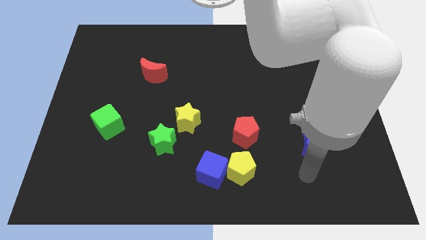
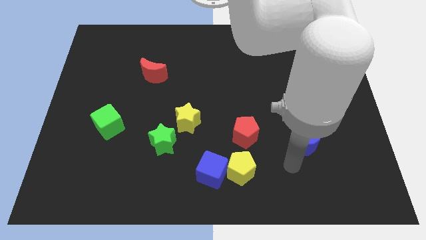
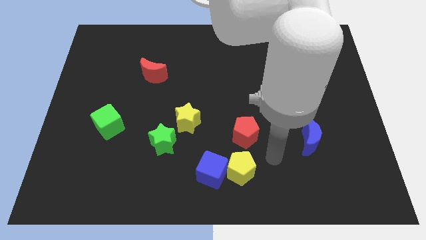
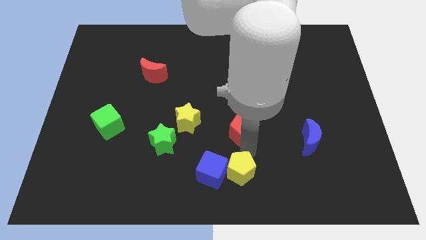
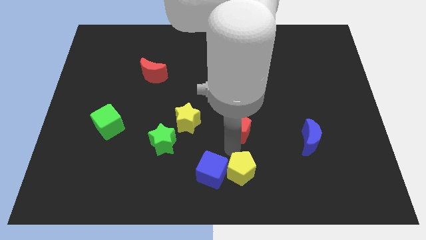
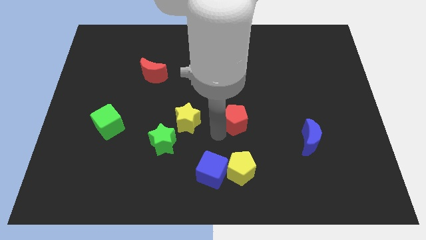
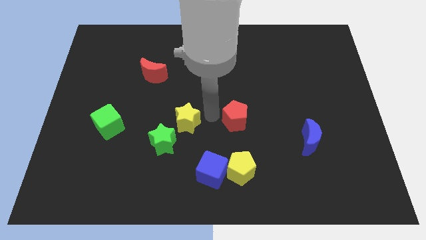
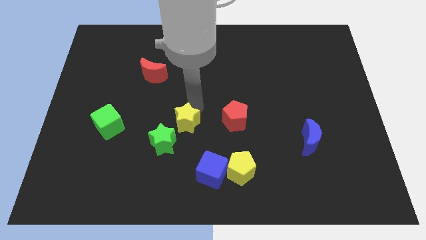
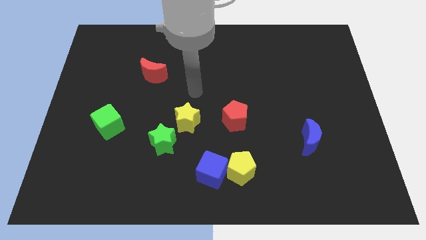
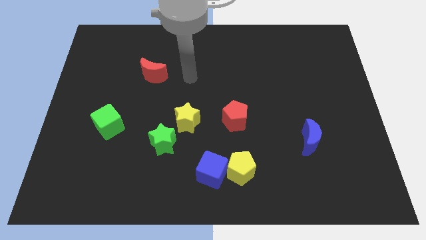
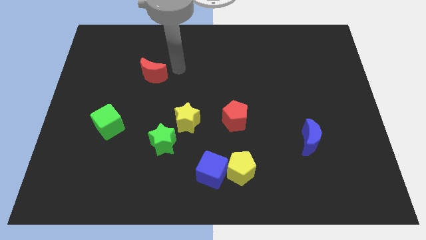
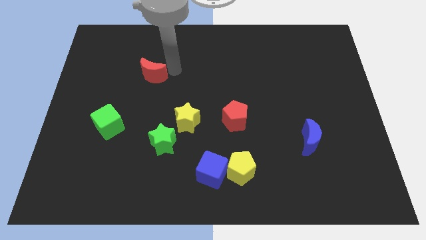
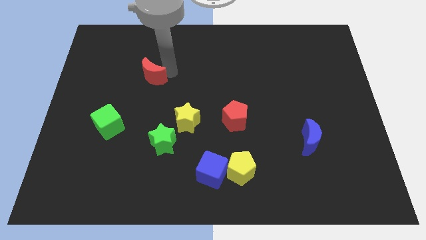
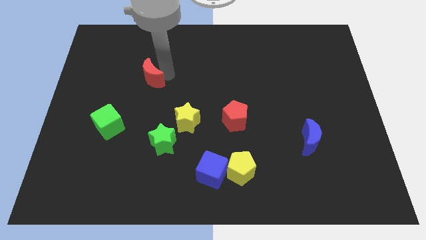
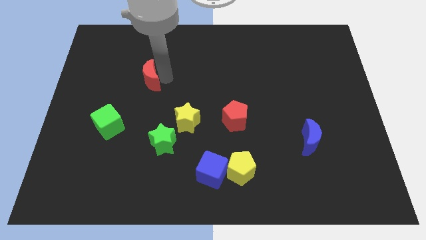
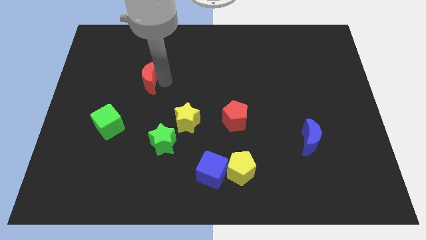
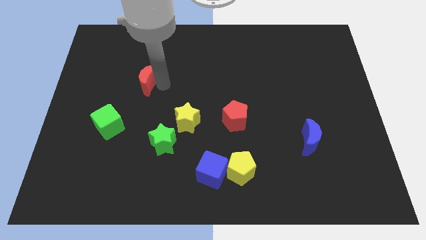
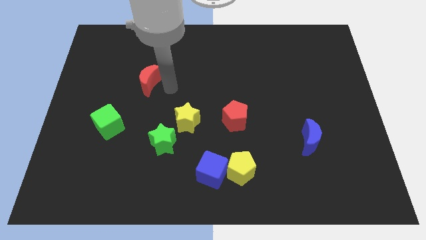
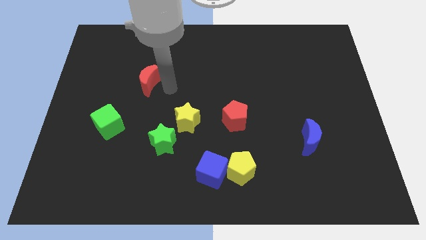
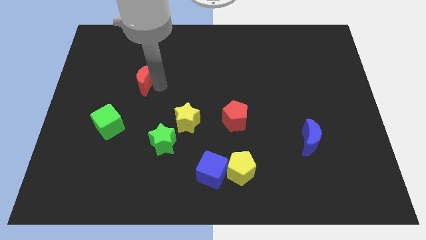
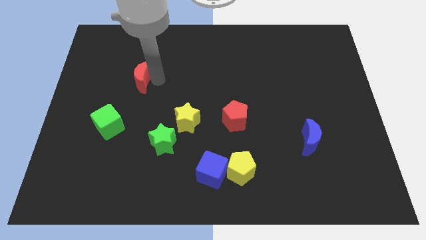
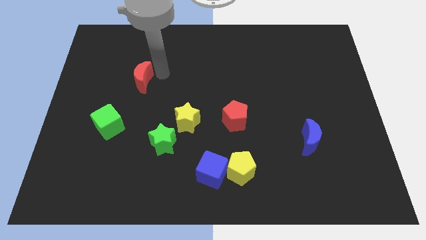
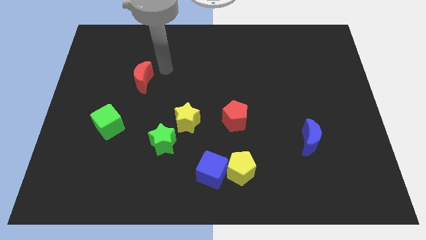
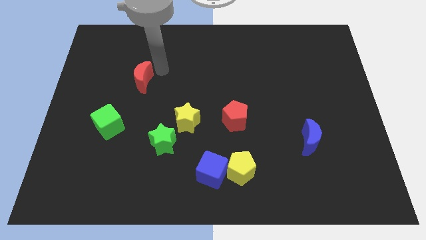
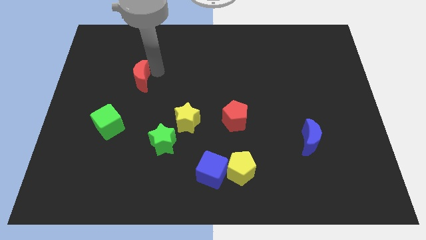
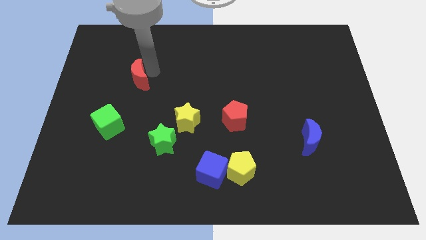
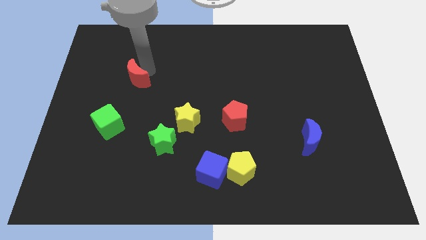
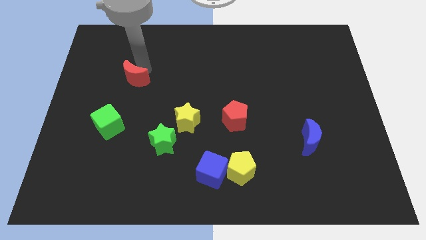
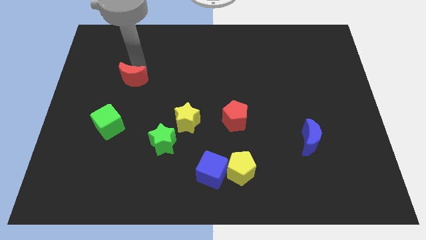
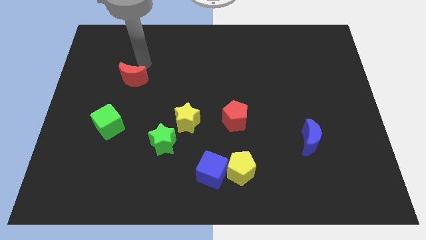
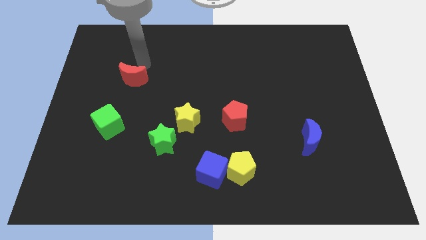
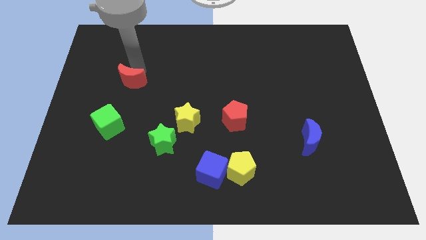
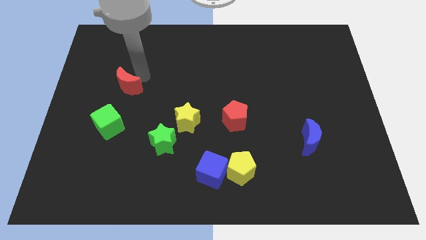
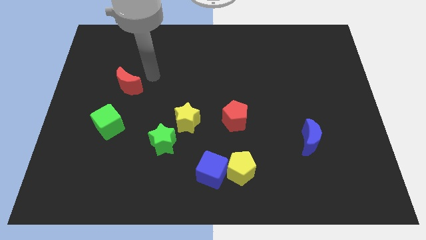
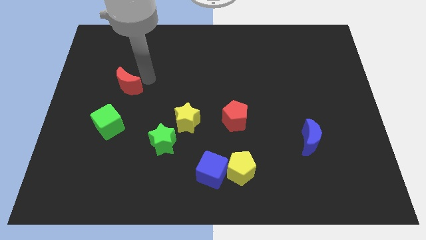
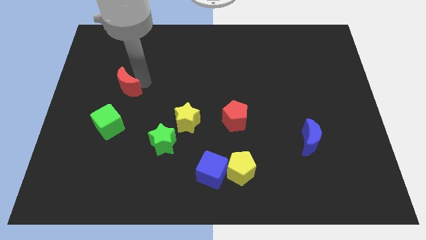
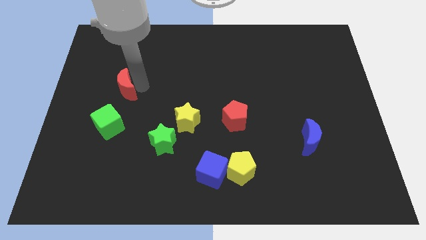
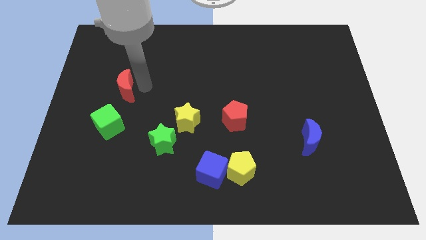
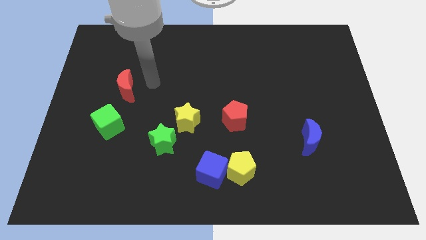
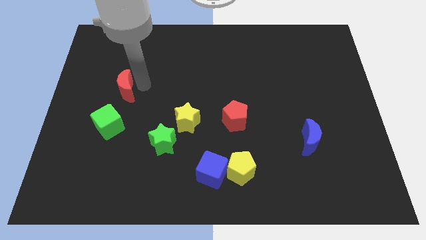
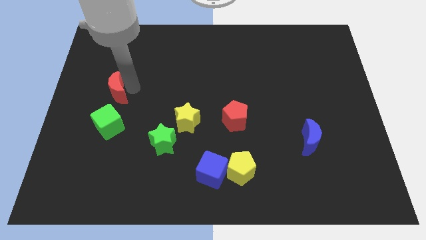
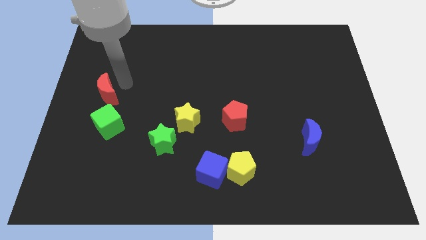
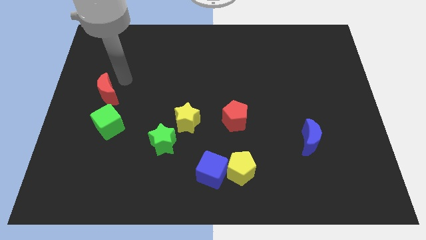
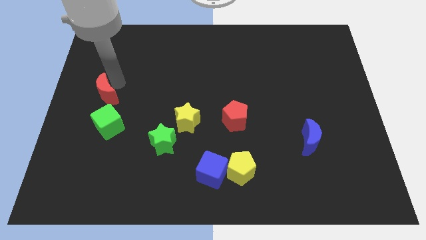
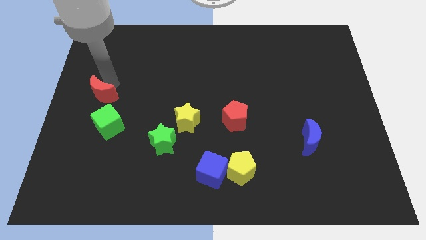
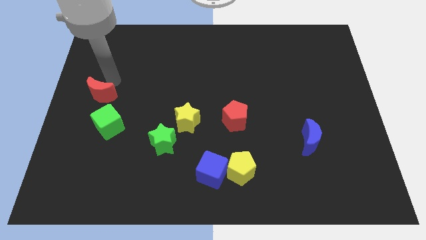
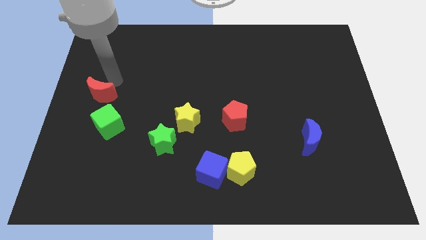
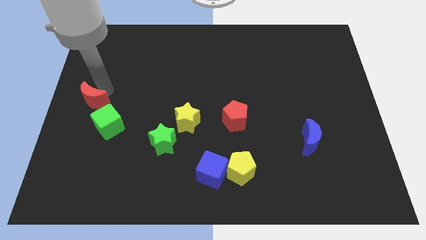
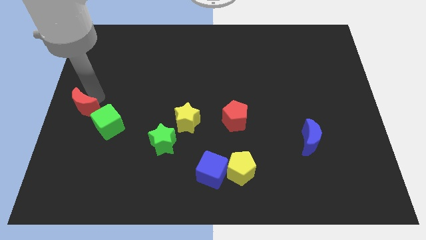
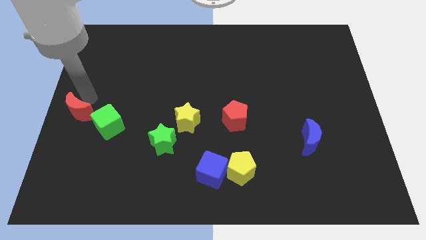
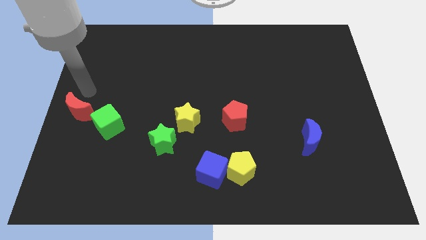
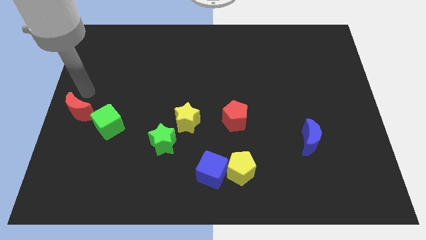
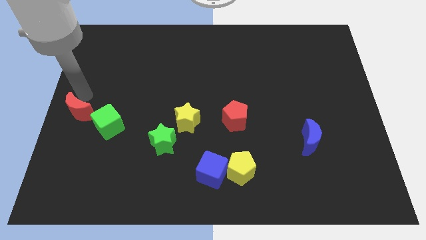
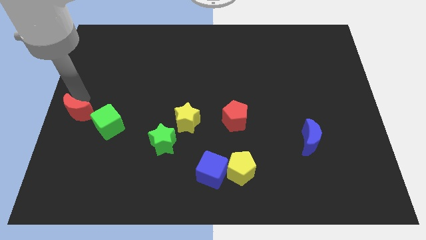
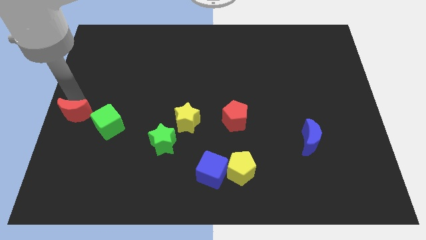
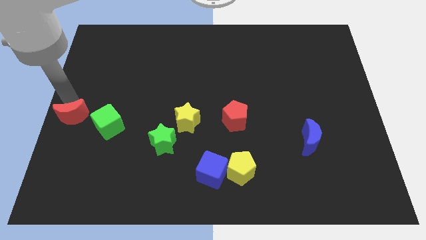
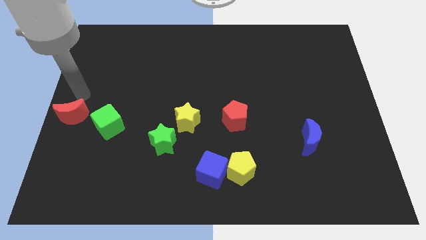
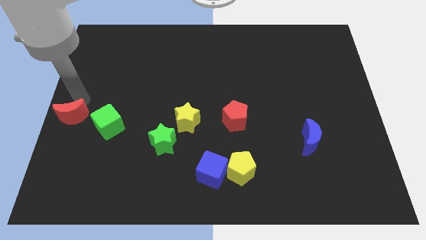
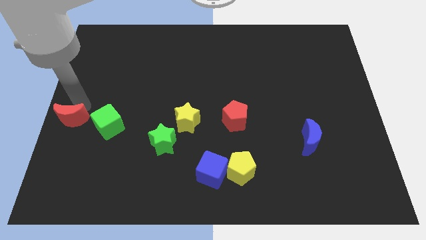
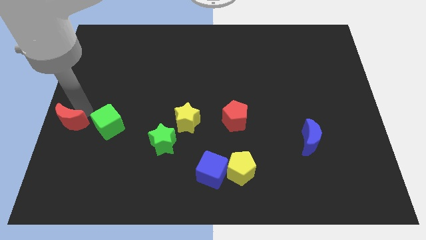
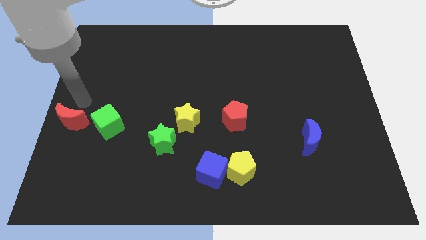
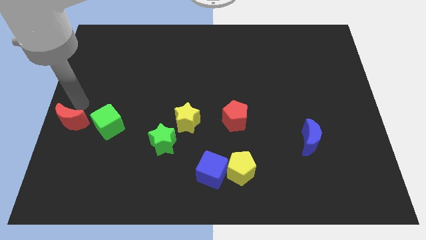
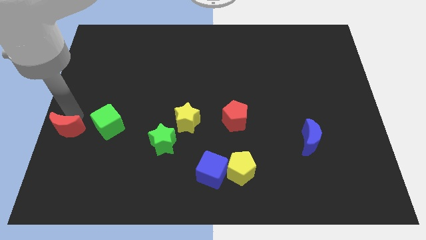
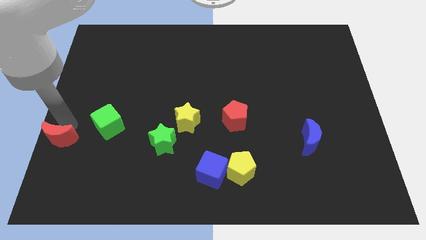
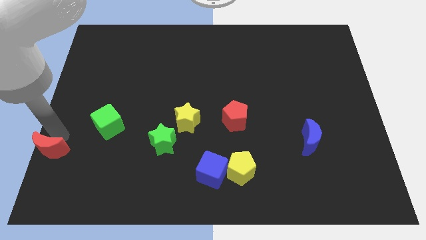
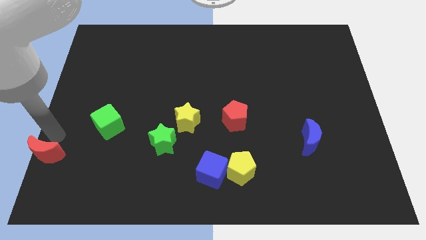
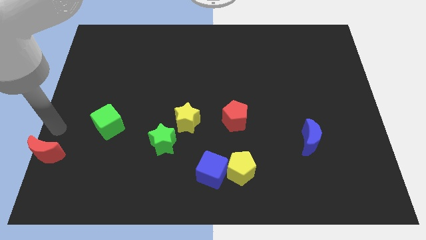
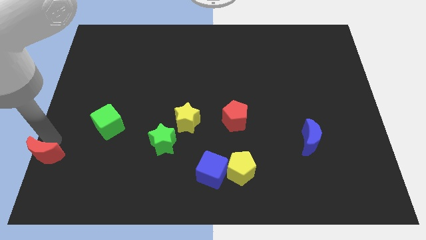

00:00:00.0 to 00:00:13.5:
put the red moon to the lower left corner
